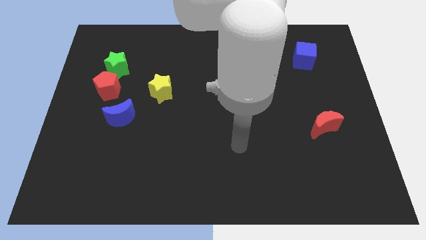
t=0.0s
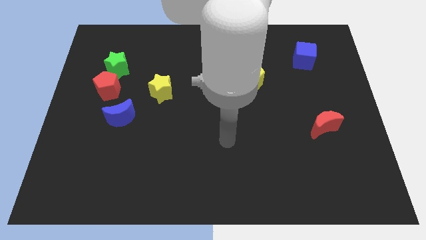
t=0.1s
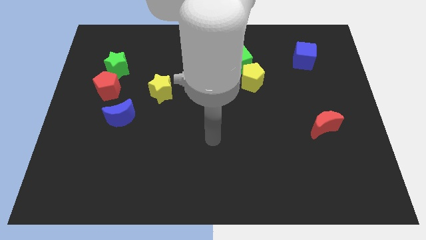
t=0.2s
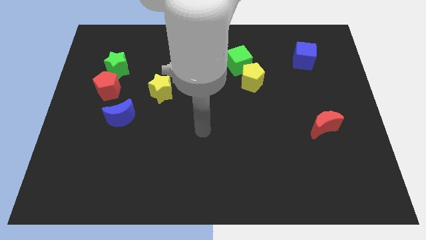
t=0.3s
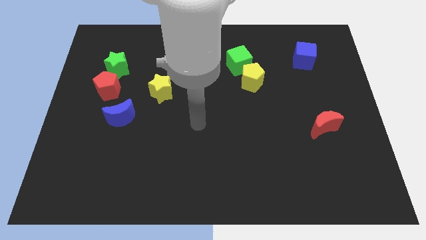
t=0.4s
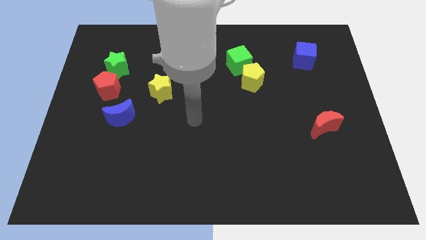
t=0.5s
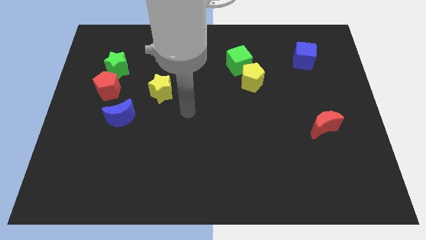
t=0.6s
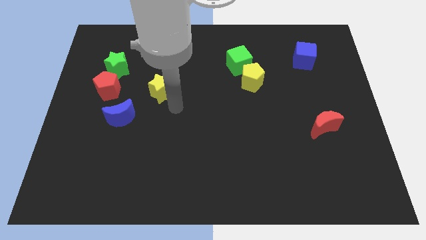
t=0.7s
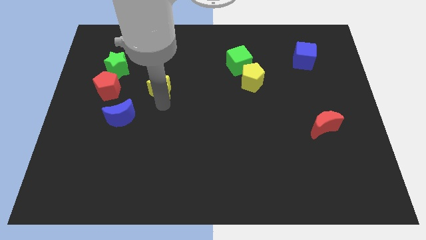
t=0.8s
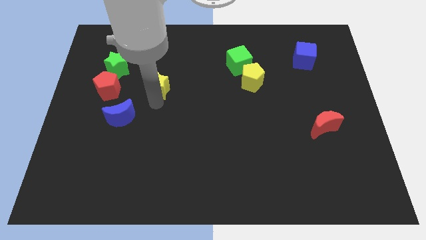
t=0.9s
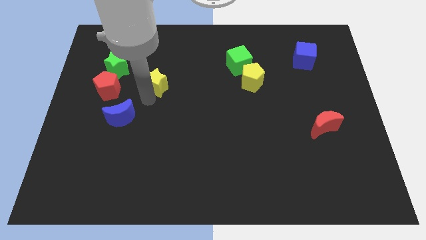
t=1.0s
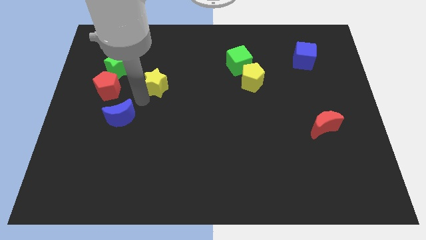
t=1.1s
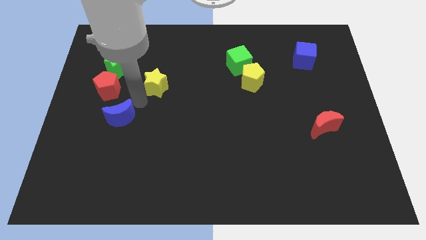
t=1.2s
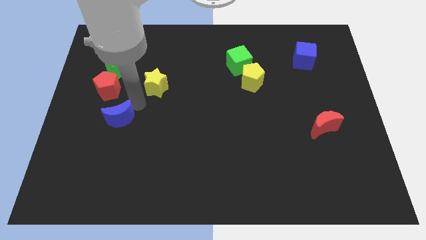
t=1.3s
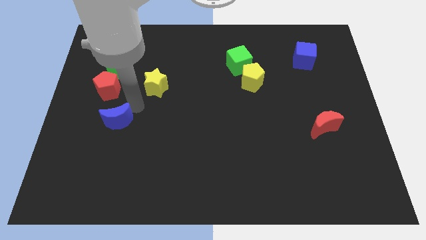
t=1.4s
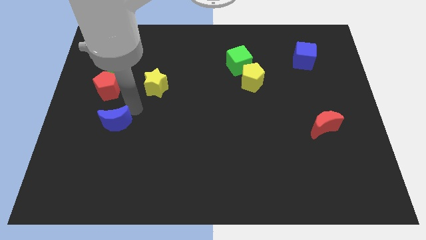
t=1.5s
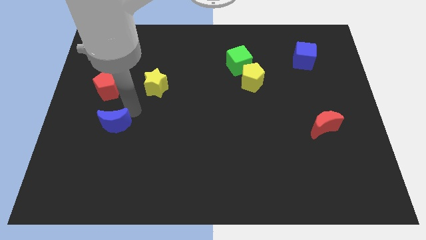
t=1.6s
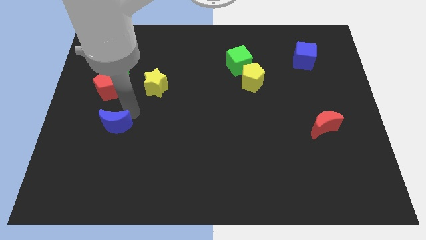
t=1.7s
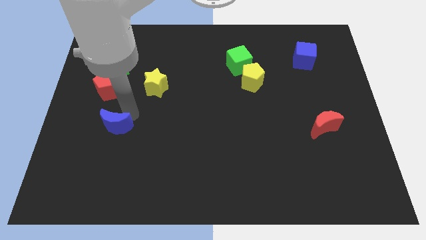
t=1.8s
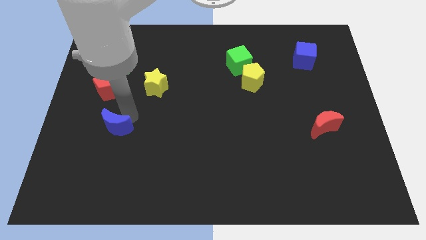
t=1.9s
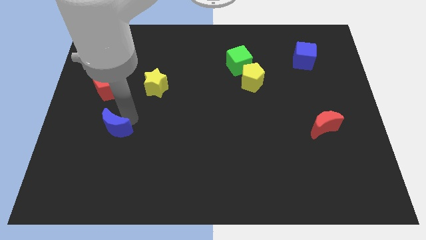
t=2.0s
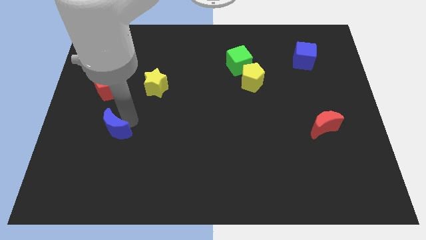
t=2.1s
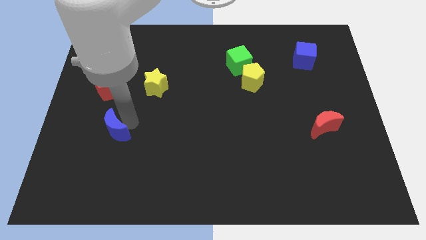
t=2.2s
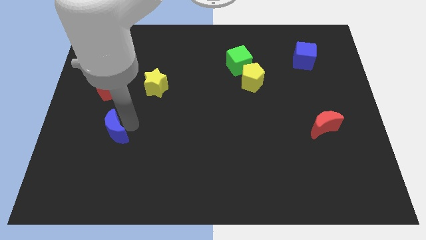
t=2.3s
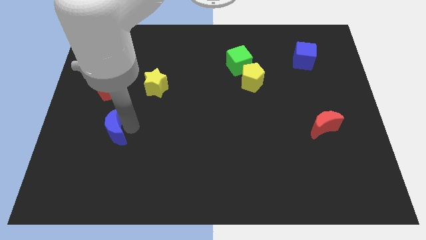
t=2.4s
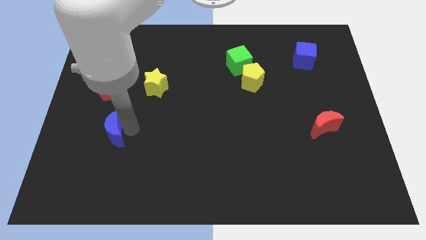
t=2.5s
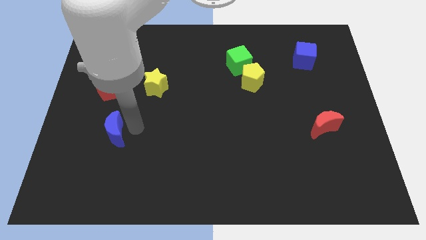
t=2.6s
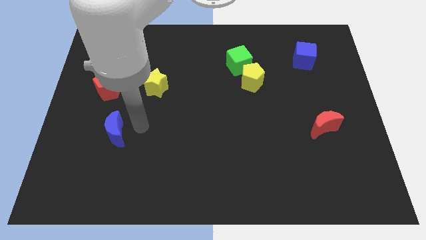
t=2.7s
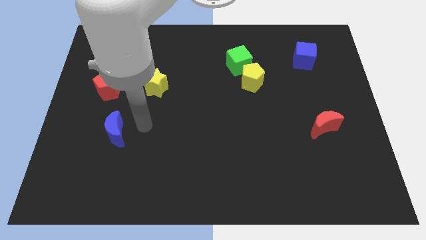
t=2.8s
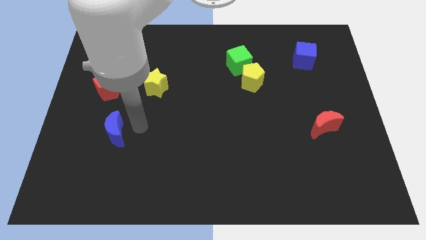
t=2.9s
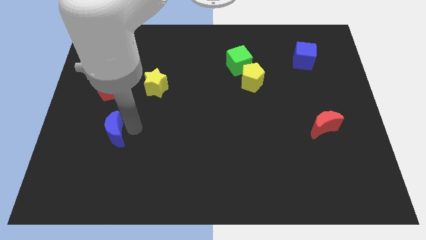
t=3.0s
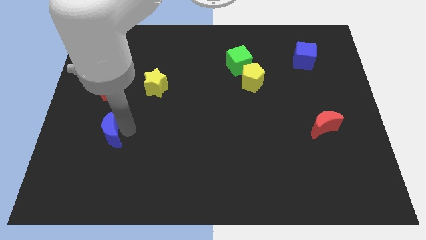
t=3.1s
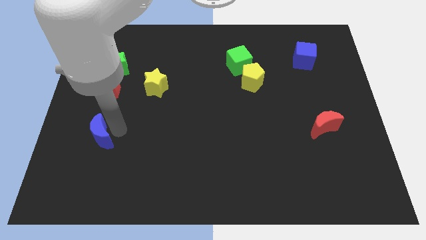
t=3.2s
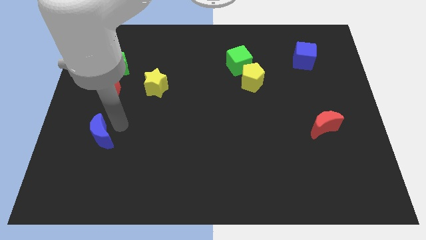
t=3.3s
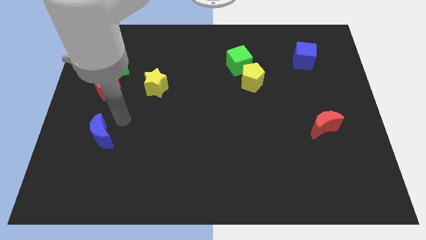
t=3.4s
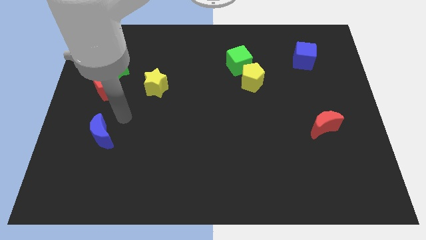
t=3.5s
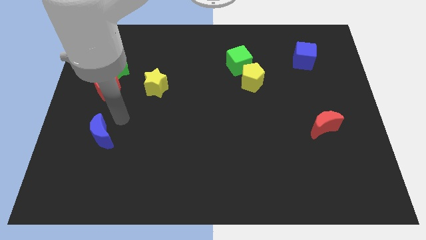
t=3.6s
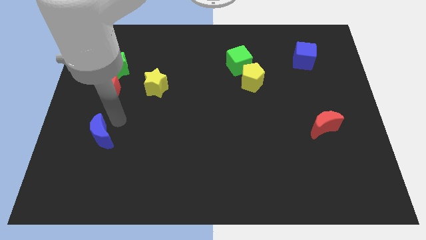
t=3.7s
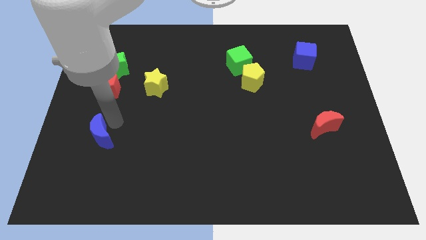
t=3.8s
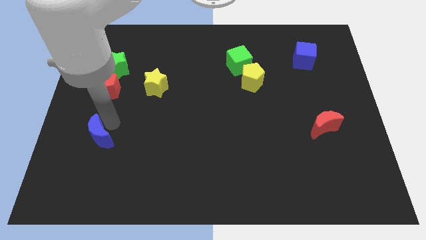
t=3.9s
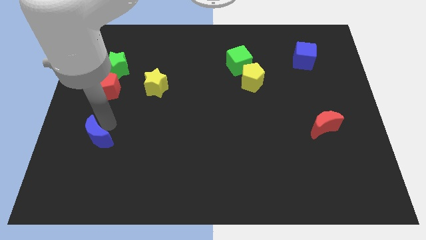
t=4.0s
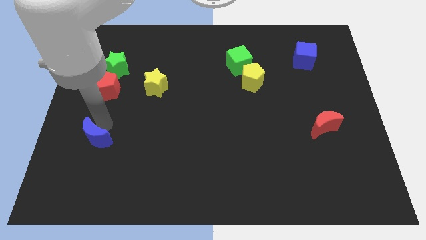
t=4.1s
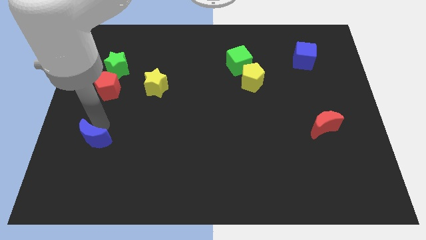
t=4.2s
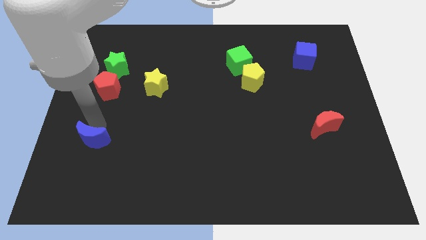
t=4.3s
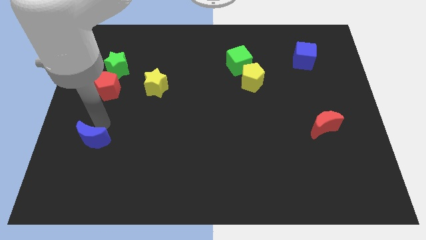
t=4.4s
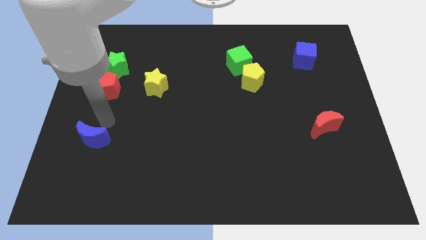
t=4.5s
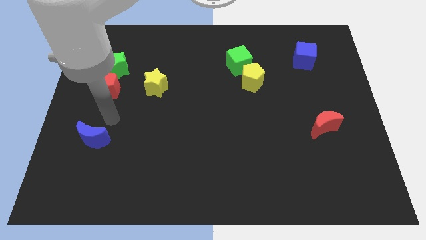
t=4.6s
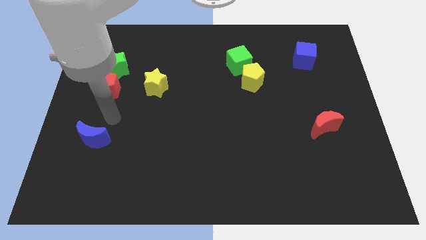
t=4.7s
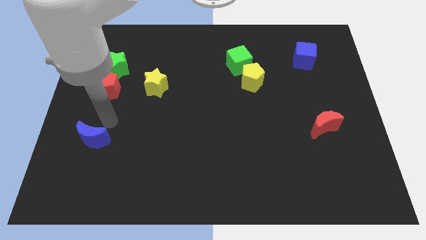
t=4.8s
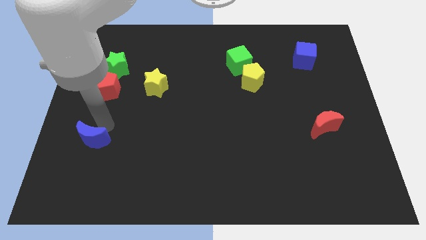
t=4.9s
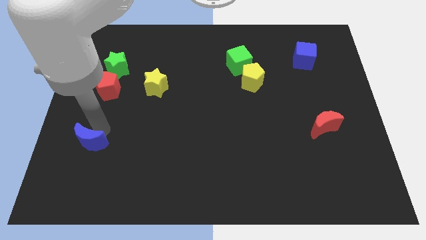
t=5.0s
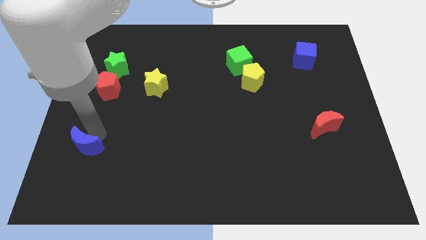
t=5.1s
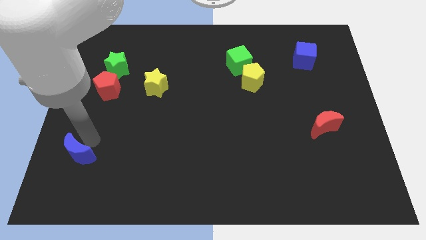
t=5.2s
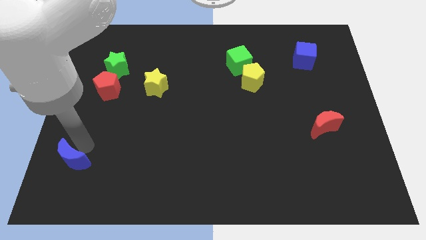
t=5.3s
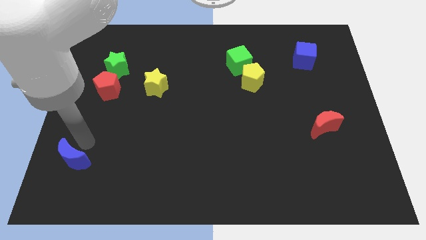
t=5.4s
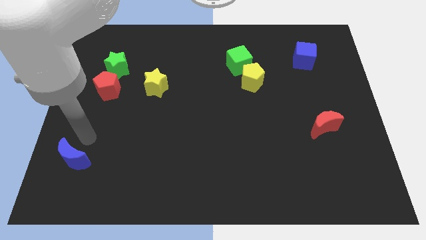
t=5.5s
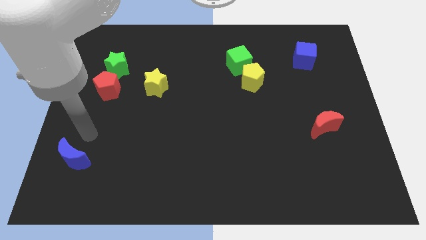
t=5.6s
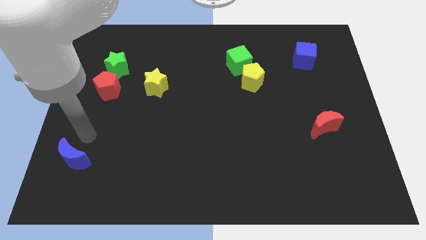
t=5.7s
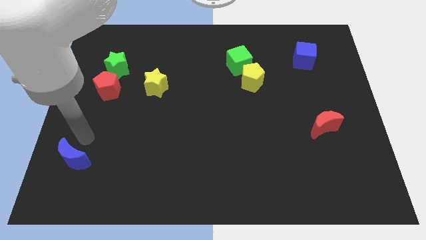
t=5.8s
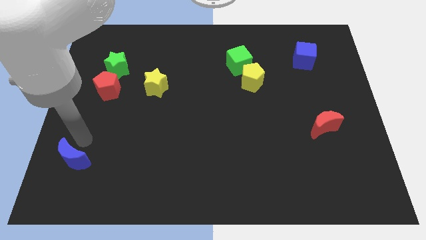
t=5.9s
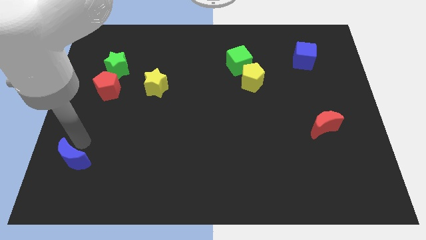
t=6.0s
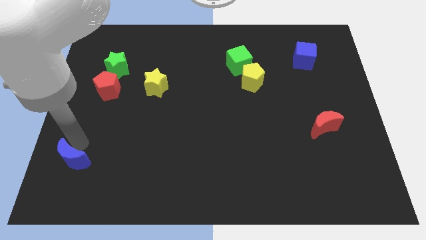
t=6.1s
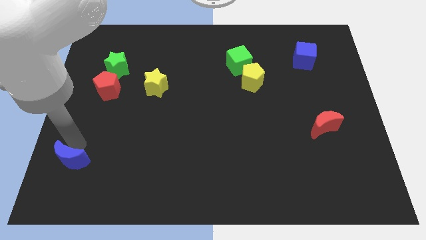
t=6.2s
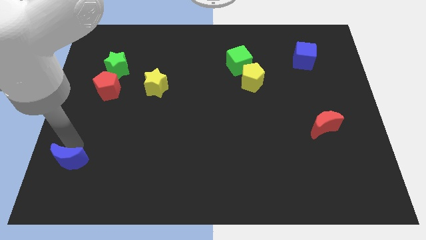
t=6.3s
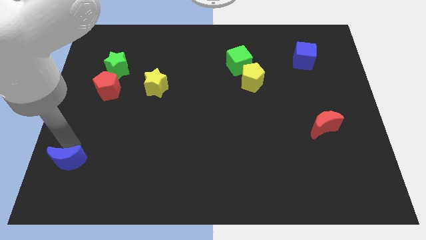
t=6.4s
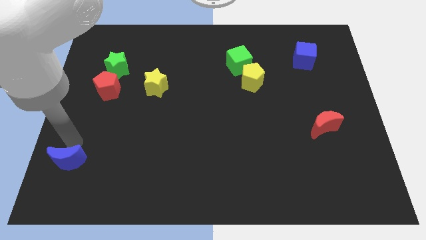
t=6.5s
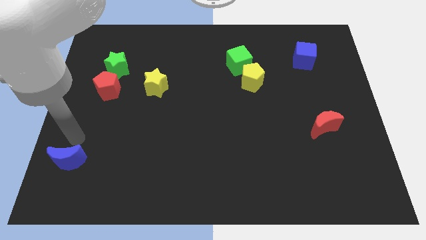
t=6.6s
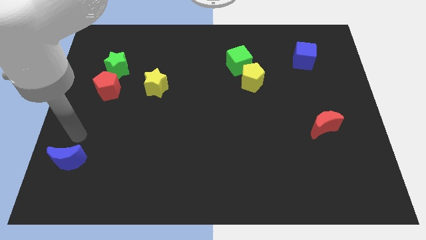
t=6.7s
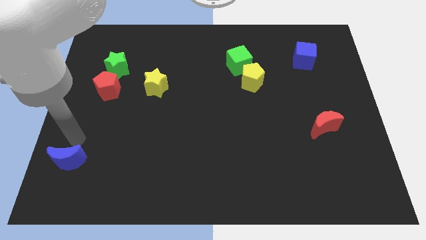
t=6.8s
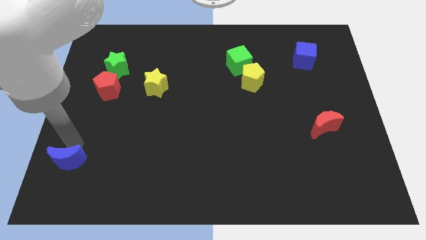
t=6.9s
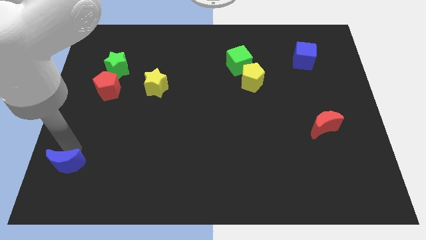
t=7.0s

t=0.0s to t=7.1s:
move the blue moon to the bottom left corner

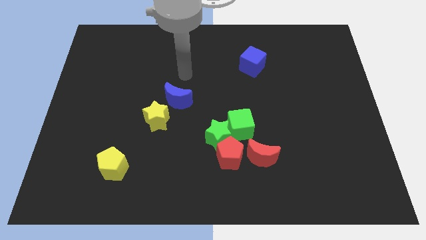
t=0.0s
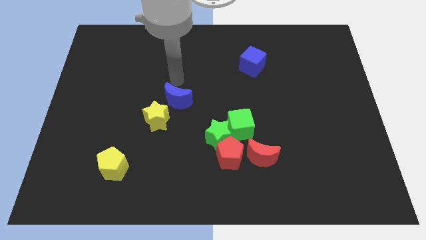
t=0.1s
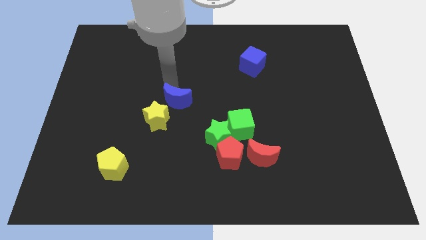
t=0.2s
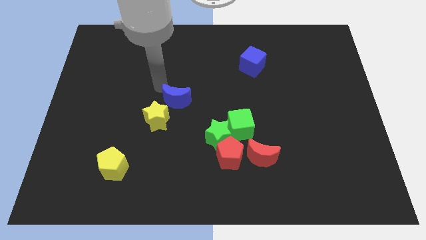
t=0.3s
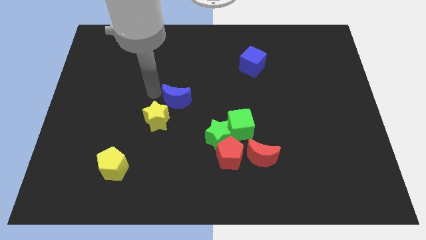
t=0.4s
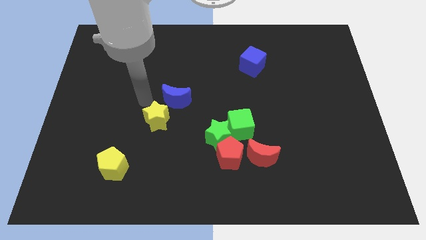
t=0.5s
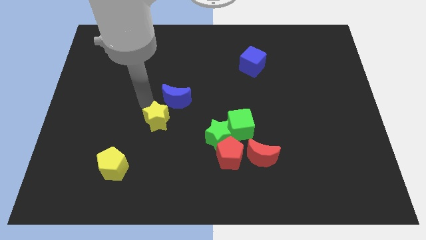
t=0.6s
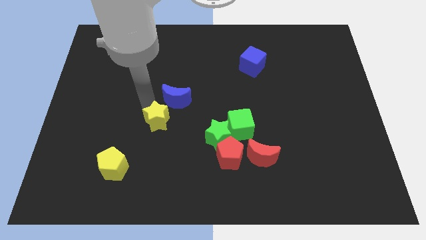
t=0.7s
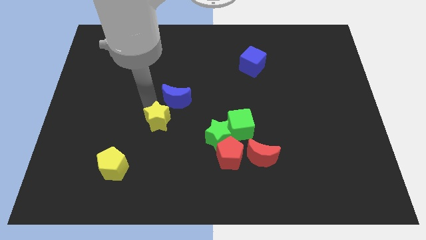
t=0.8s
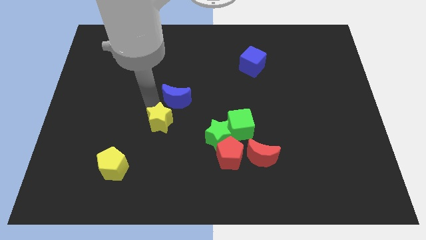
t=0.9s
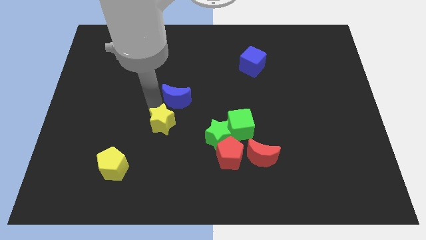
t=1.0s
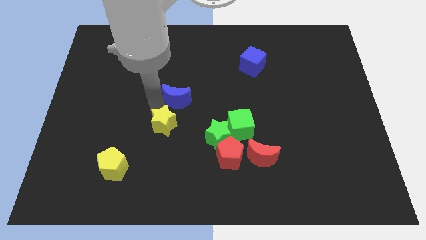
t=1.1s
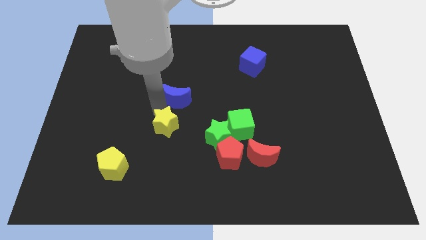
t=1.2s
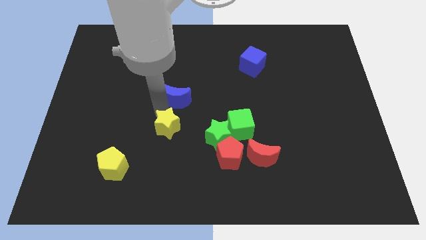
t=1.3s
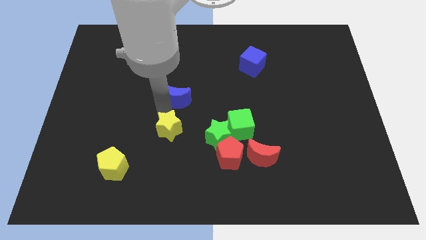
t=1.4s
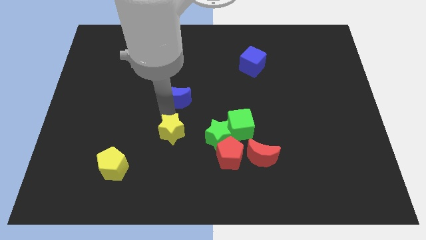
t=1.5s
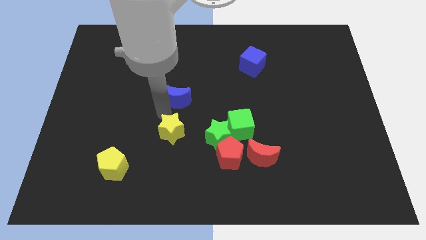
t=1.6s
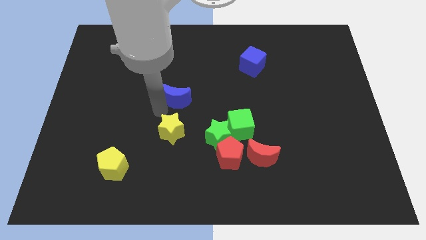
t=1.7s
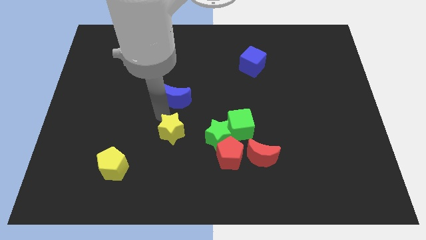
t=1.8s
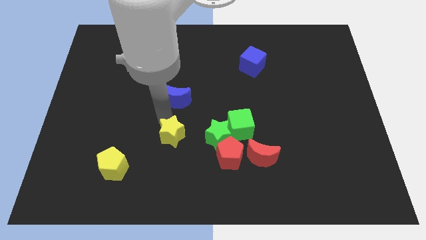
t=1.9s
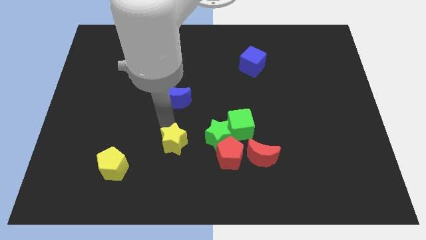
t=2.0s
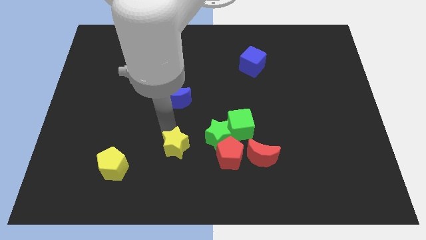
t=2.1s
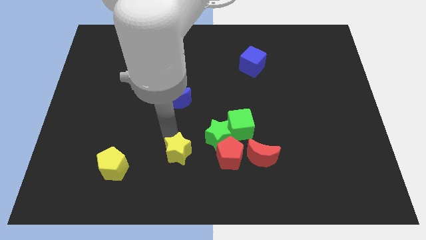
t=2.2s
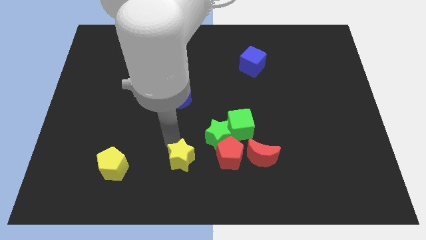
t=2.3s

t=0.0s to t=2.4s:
put the yellow star to the bottom side
